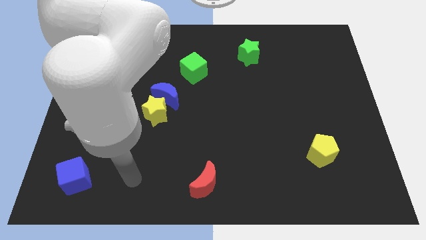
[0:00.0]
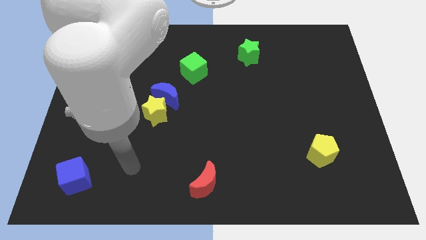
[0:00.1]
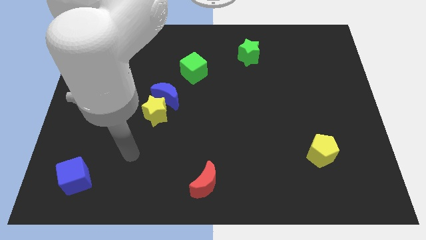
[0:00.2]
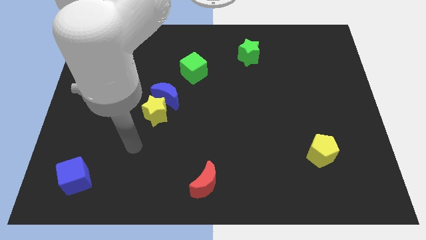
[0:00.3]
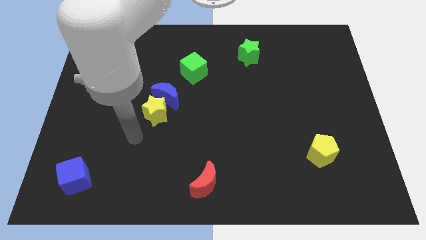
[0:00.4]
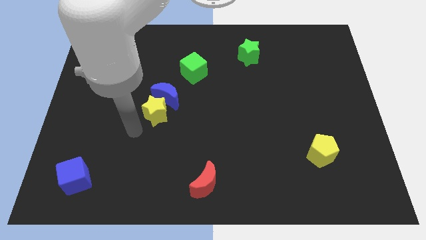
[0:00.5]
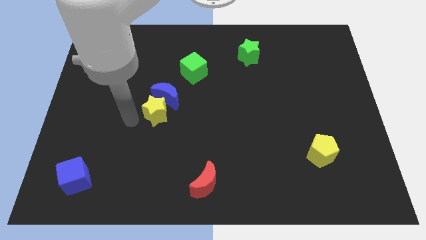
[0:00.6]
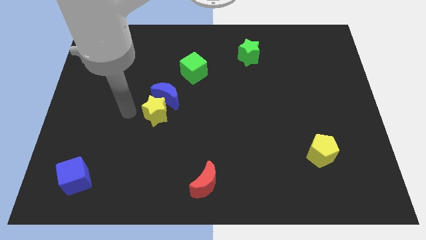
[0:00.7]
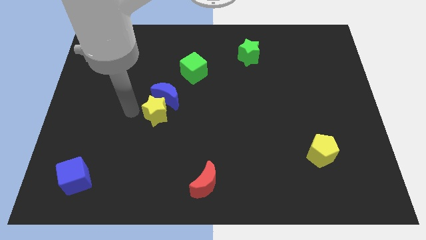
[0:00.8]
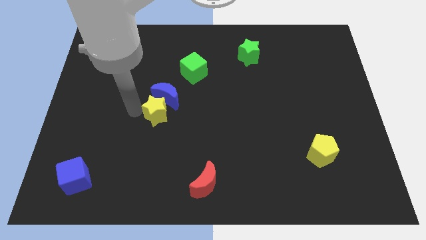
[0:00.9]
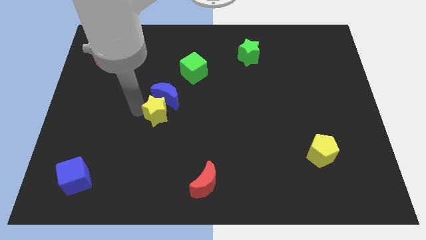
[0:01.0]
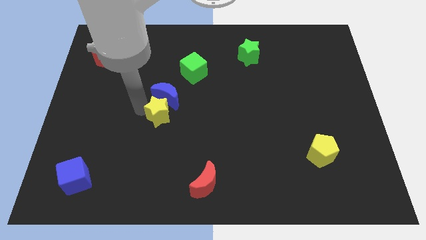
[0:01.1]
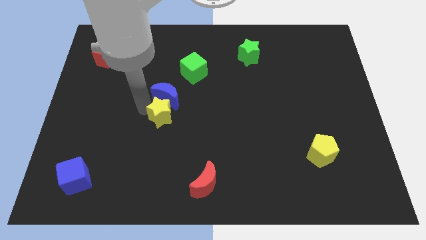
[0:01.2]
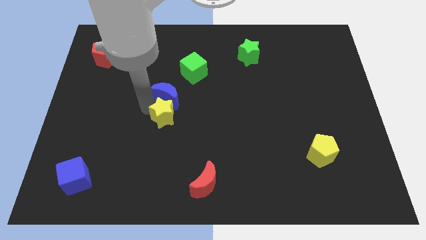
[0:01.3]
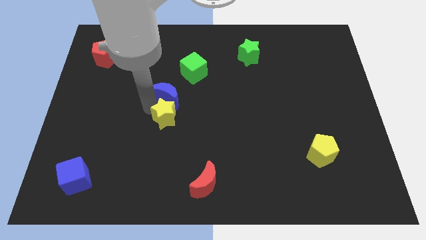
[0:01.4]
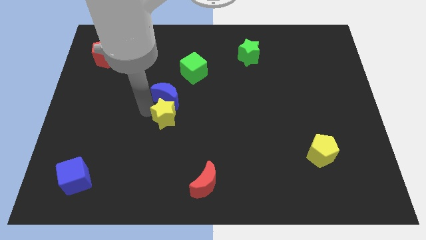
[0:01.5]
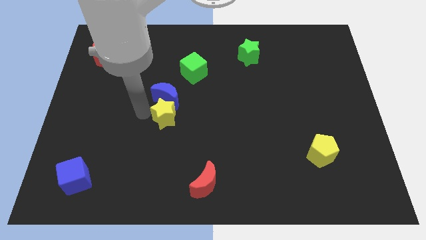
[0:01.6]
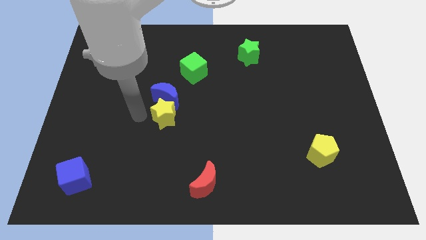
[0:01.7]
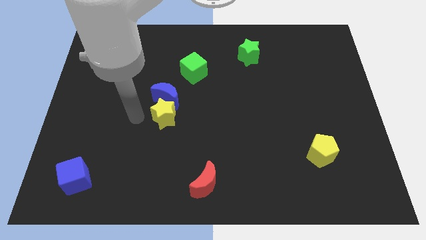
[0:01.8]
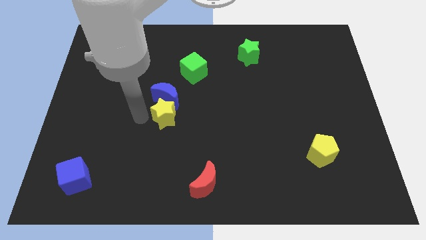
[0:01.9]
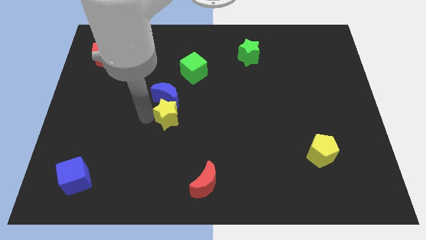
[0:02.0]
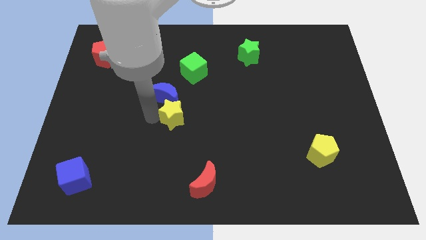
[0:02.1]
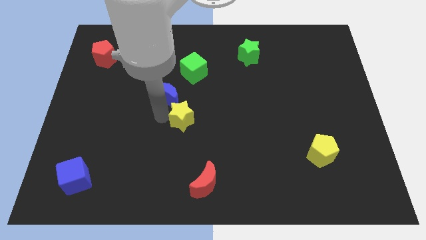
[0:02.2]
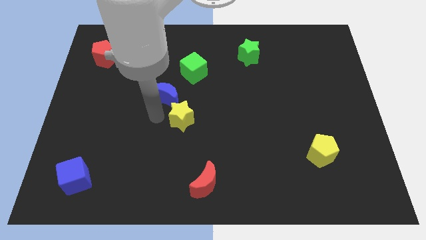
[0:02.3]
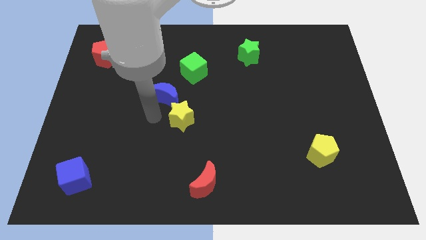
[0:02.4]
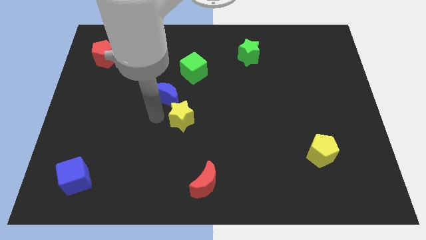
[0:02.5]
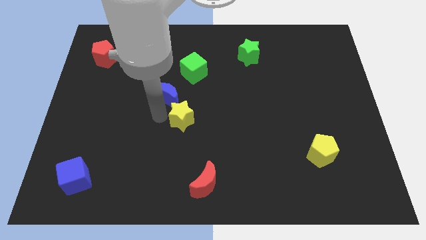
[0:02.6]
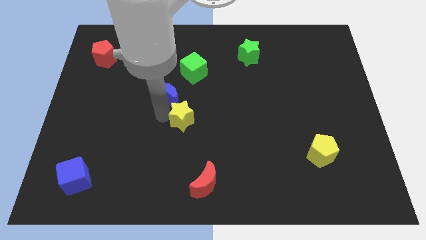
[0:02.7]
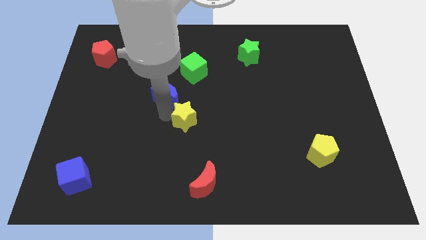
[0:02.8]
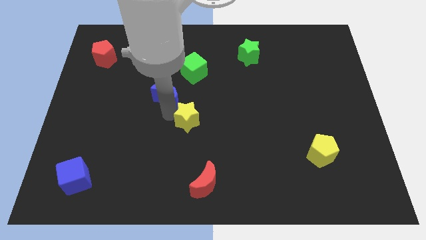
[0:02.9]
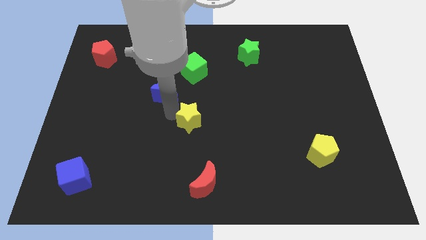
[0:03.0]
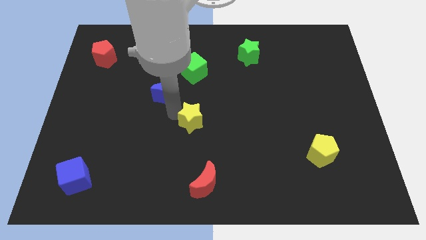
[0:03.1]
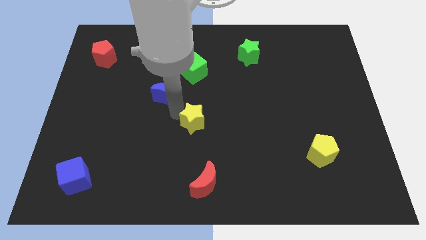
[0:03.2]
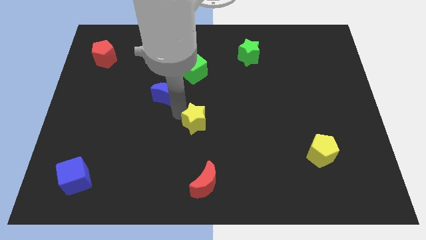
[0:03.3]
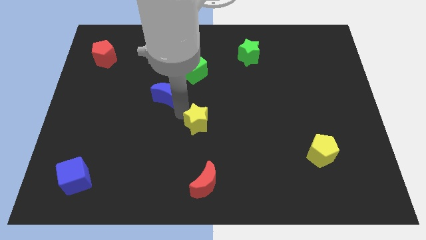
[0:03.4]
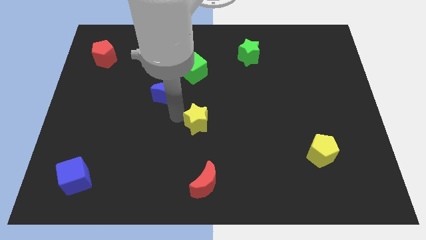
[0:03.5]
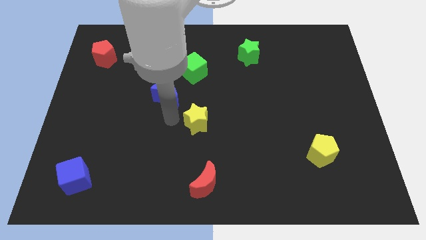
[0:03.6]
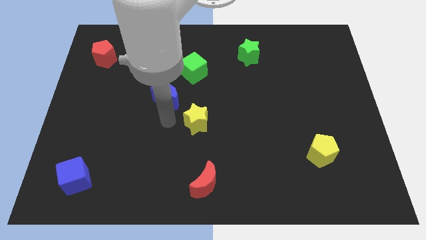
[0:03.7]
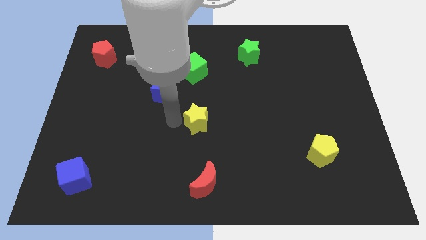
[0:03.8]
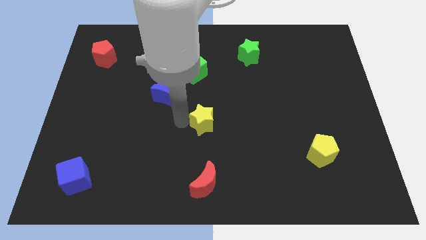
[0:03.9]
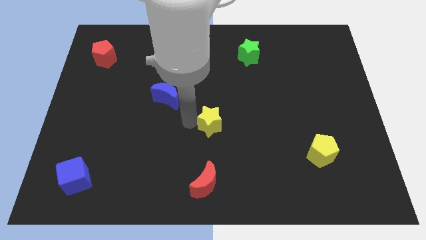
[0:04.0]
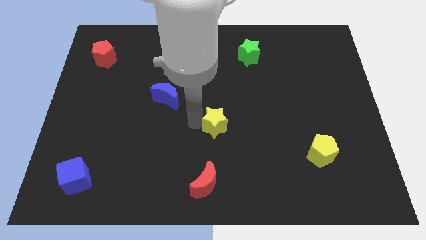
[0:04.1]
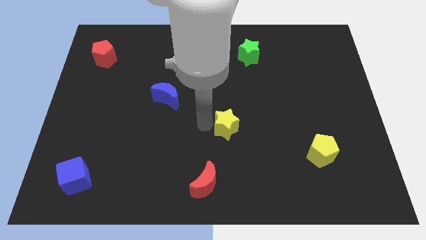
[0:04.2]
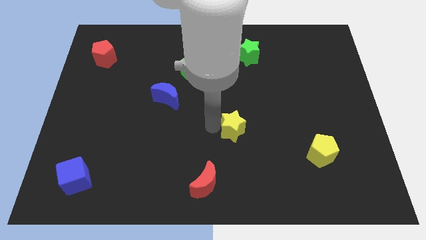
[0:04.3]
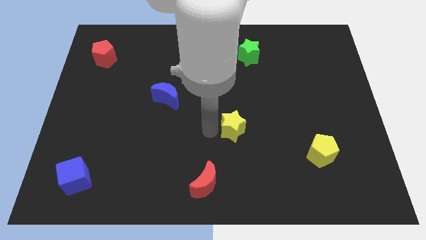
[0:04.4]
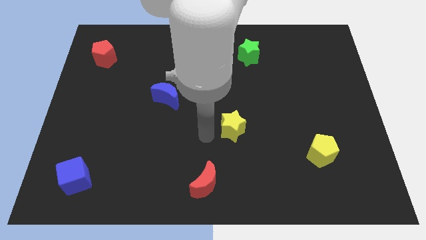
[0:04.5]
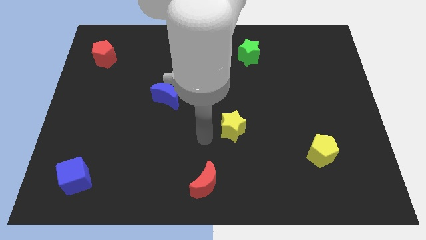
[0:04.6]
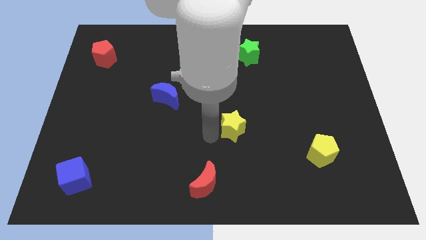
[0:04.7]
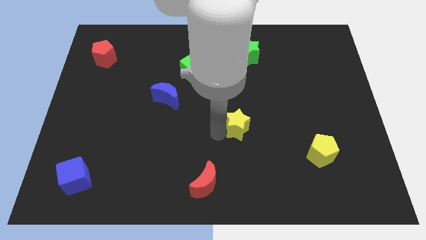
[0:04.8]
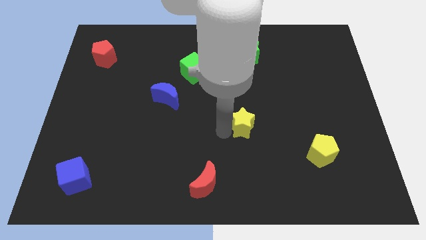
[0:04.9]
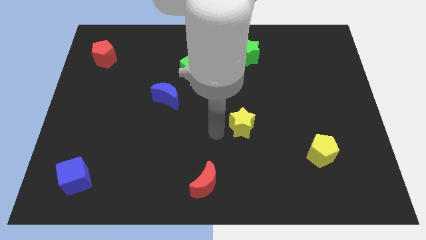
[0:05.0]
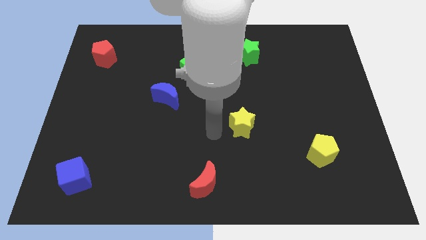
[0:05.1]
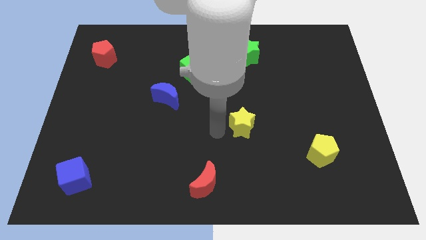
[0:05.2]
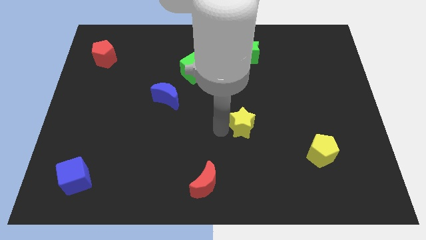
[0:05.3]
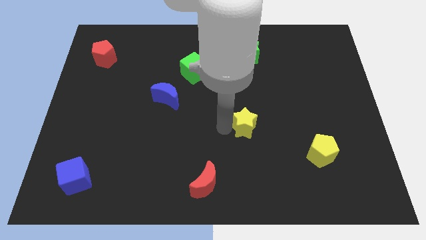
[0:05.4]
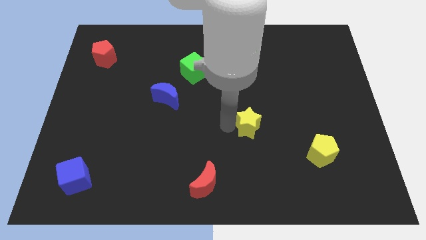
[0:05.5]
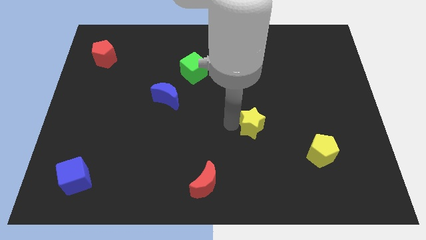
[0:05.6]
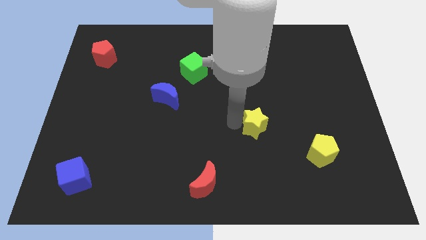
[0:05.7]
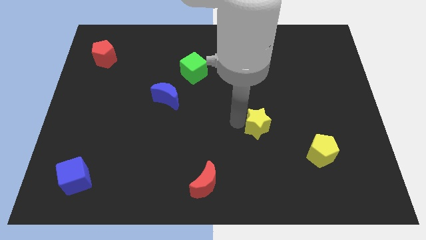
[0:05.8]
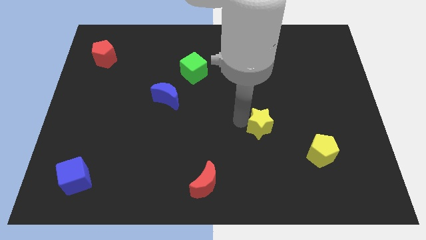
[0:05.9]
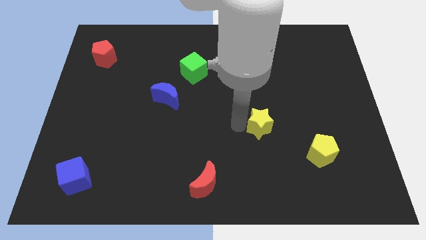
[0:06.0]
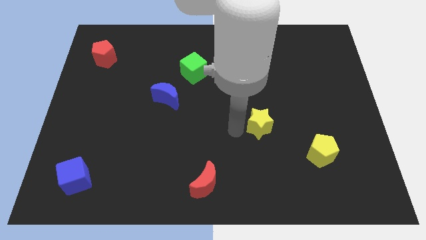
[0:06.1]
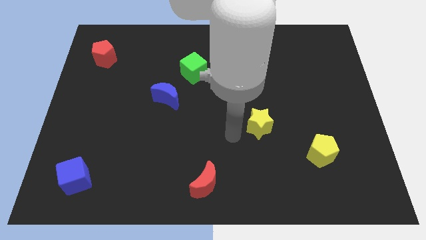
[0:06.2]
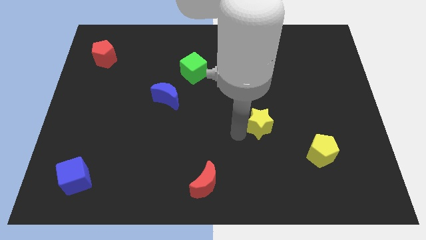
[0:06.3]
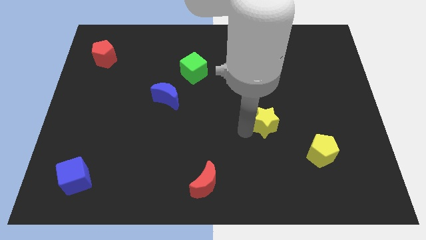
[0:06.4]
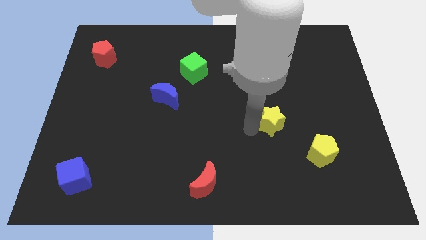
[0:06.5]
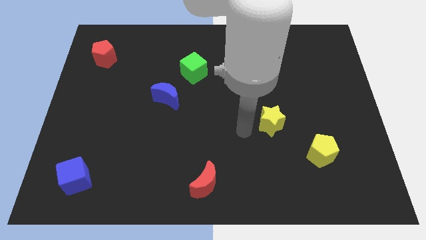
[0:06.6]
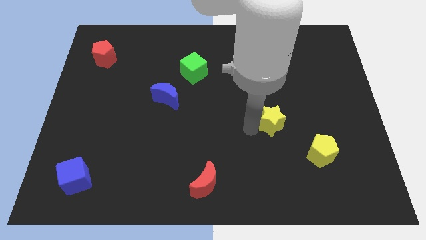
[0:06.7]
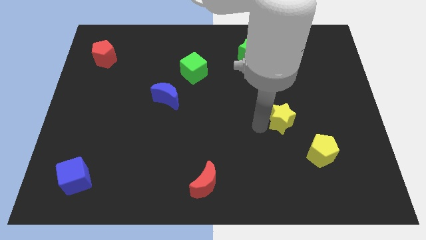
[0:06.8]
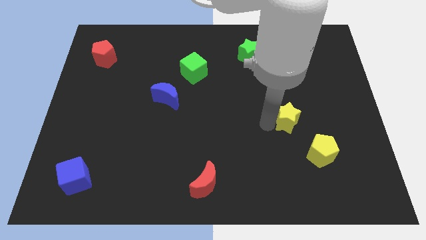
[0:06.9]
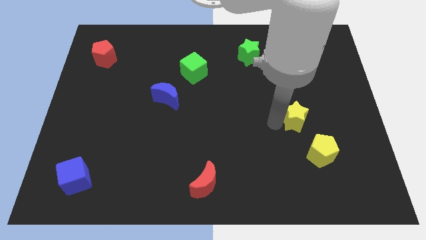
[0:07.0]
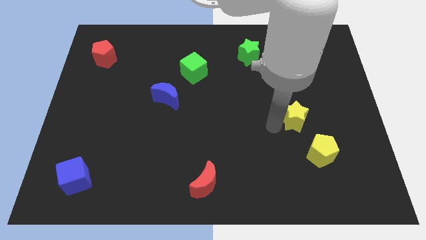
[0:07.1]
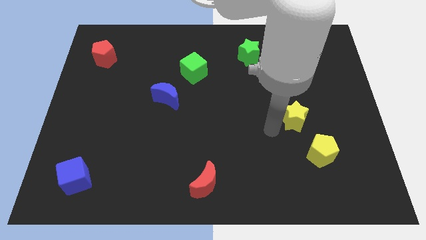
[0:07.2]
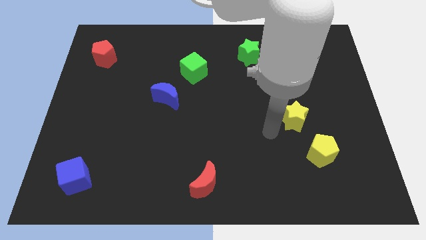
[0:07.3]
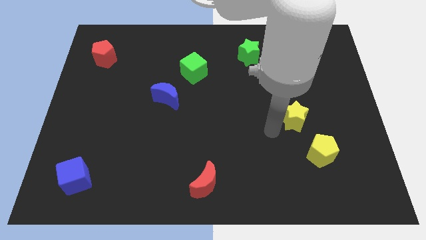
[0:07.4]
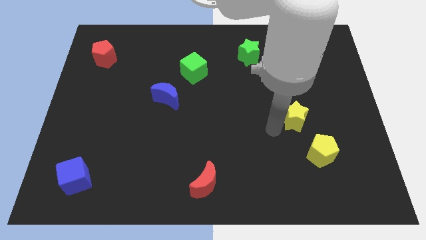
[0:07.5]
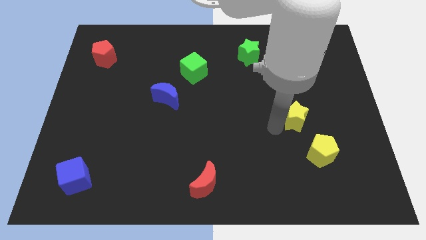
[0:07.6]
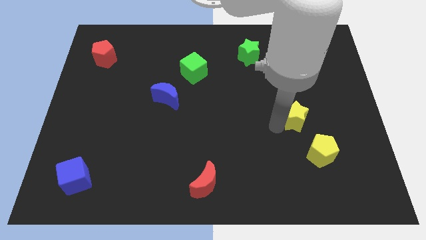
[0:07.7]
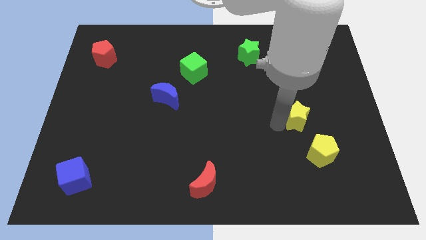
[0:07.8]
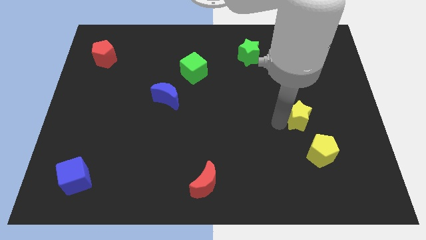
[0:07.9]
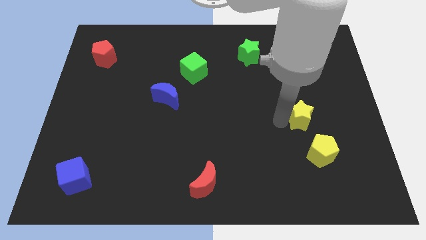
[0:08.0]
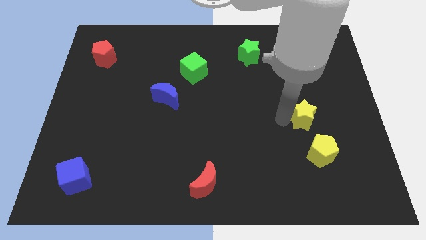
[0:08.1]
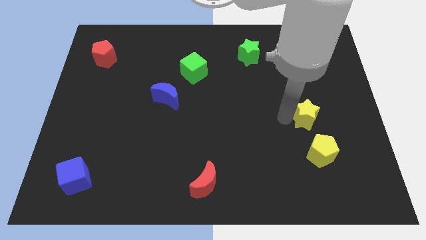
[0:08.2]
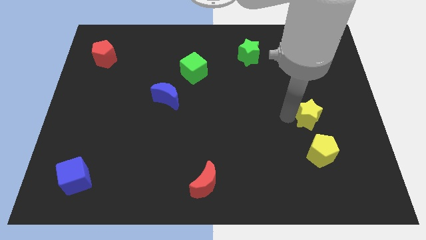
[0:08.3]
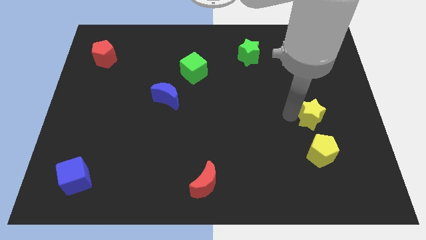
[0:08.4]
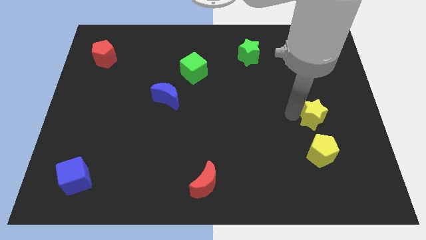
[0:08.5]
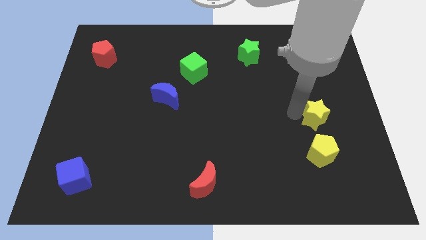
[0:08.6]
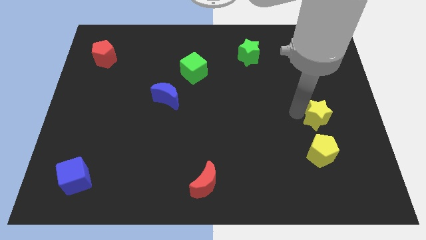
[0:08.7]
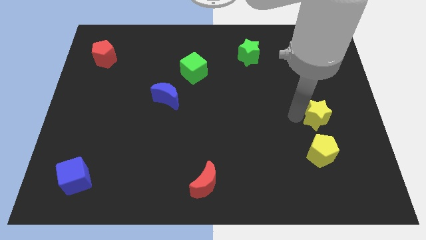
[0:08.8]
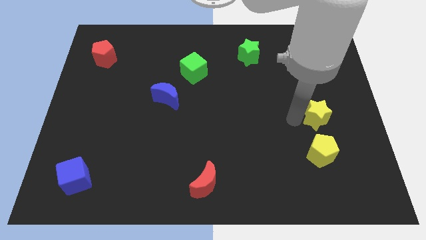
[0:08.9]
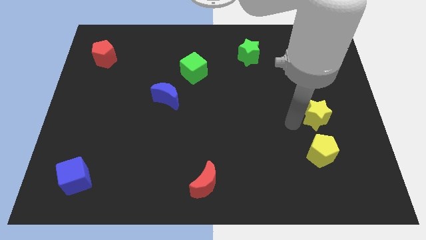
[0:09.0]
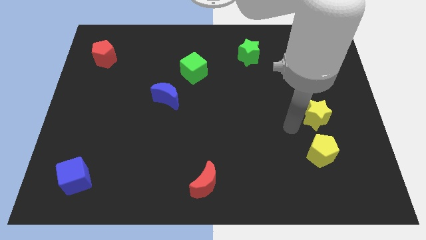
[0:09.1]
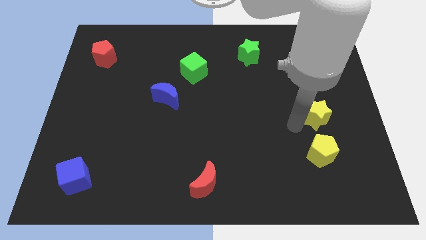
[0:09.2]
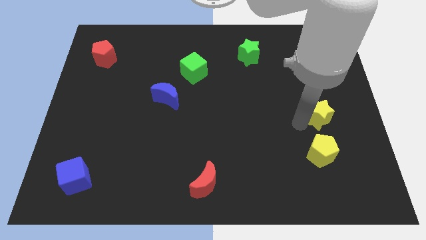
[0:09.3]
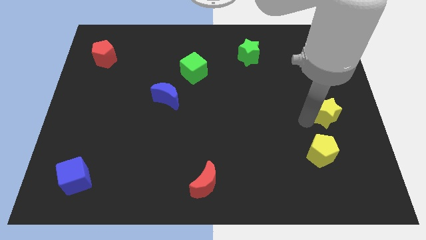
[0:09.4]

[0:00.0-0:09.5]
move the yellow star to the right side
